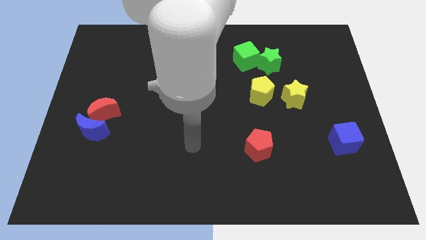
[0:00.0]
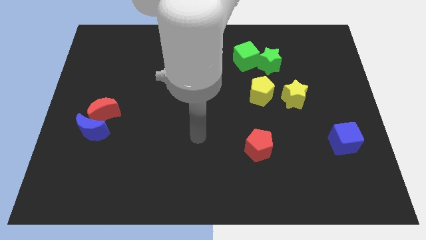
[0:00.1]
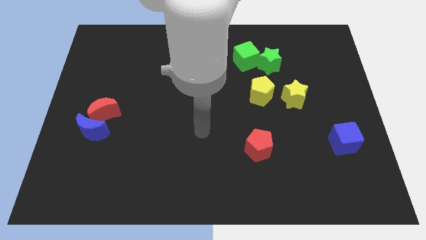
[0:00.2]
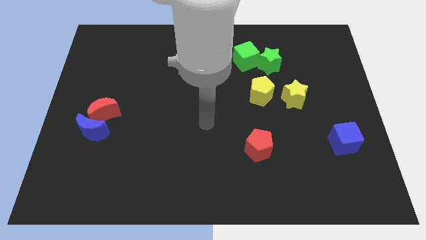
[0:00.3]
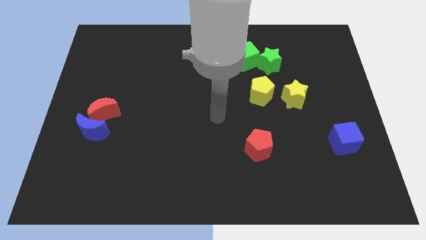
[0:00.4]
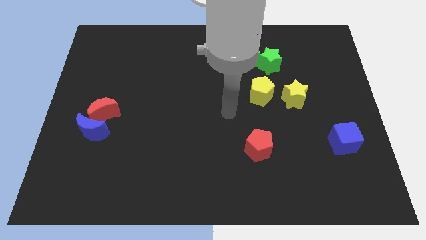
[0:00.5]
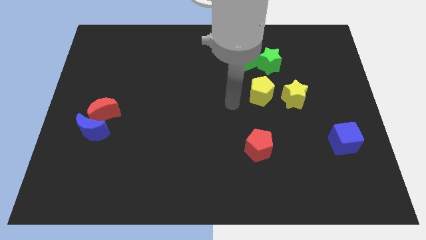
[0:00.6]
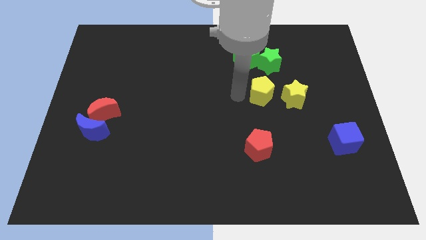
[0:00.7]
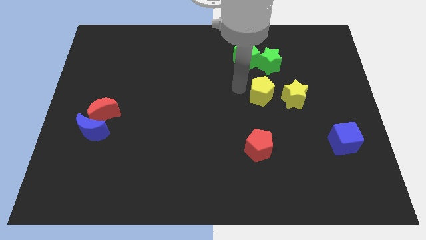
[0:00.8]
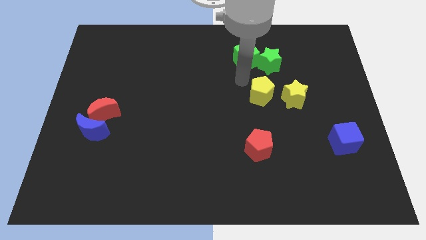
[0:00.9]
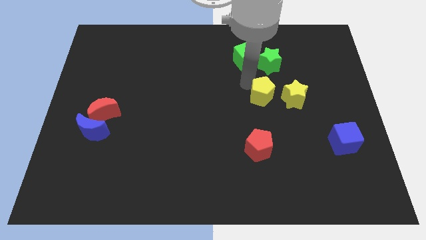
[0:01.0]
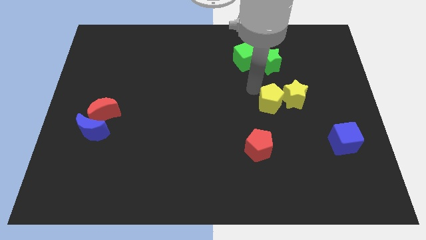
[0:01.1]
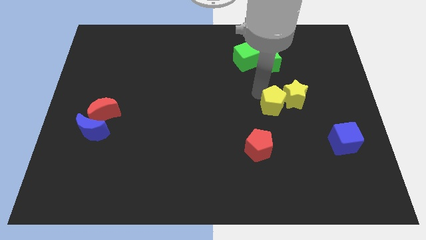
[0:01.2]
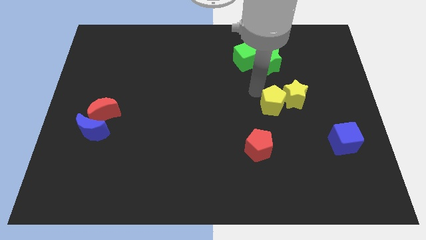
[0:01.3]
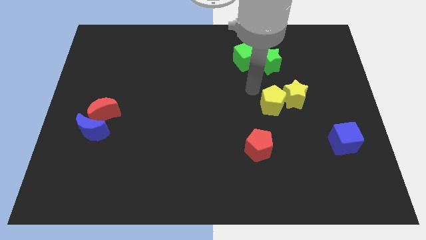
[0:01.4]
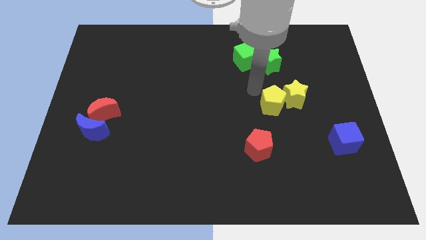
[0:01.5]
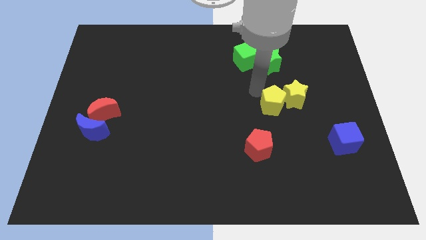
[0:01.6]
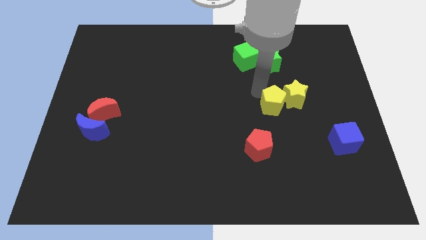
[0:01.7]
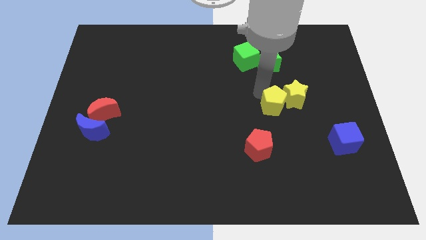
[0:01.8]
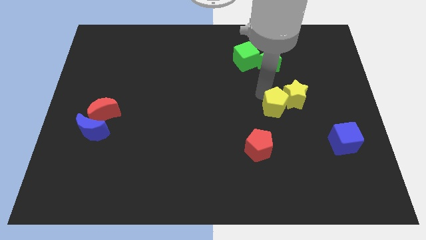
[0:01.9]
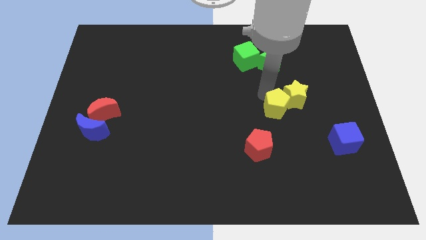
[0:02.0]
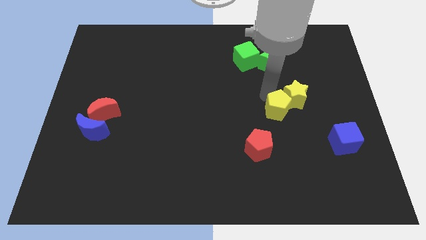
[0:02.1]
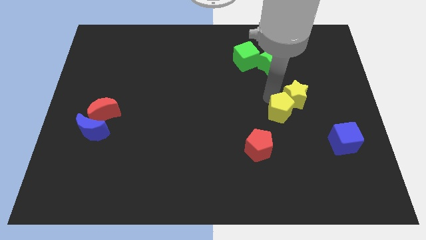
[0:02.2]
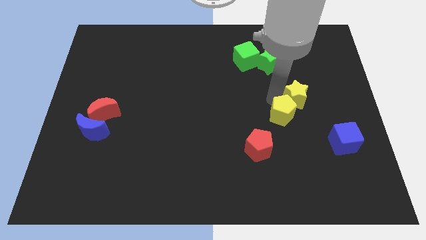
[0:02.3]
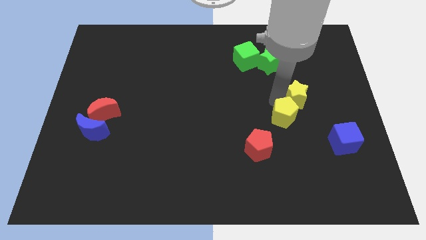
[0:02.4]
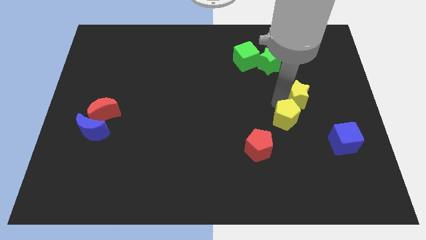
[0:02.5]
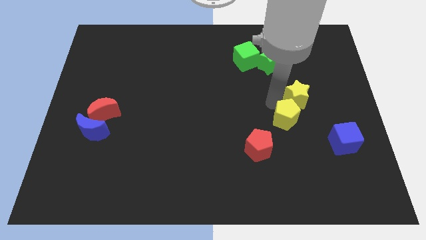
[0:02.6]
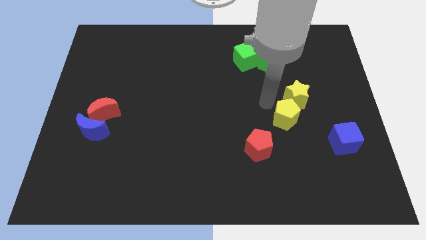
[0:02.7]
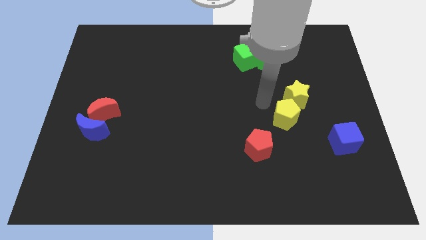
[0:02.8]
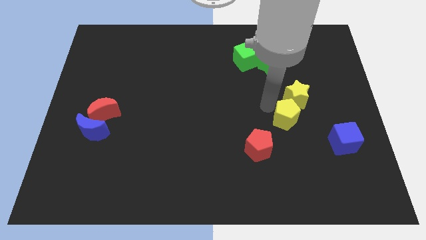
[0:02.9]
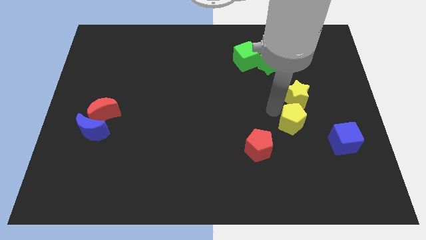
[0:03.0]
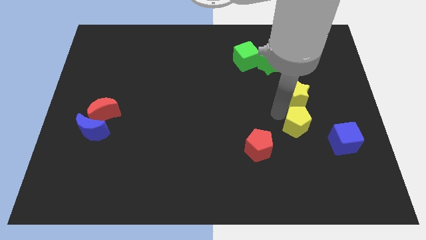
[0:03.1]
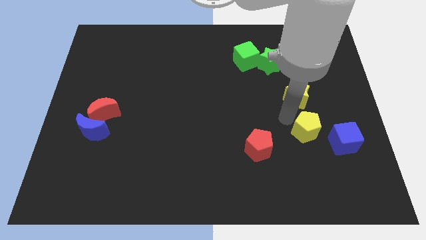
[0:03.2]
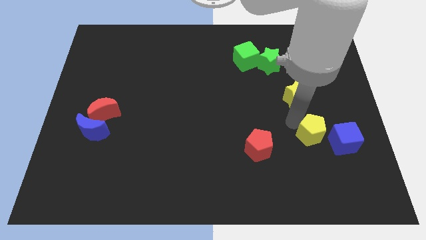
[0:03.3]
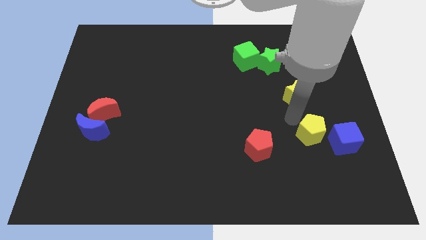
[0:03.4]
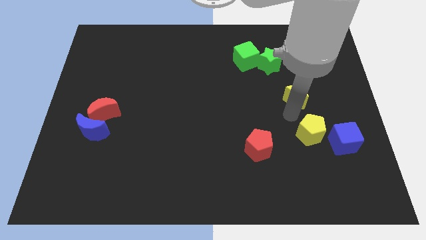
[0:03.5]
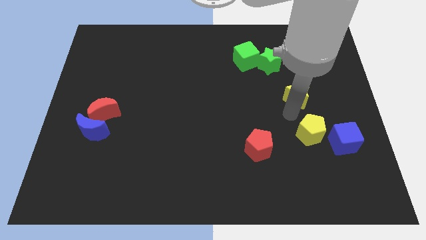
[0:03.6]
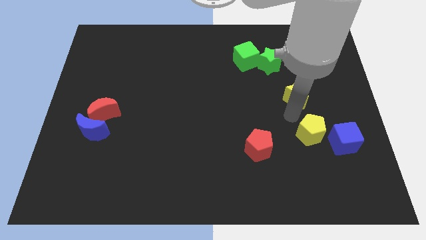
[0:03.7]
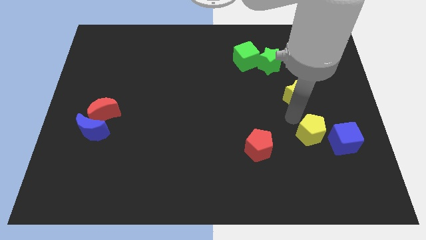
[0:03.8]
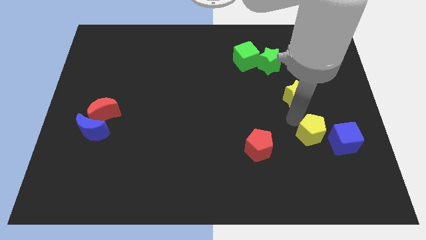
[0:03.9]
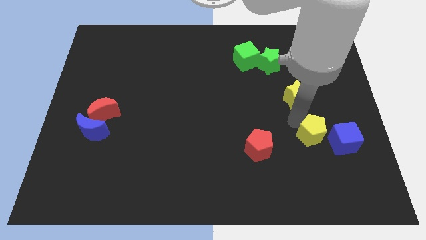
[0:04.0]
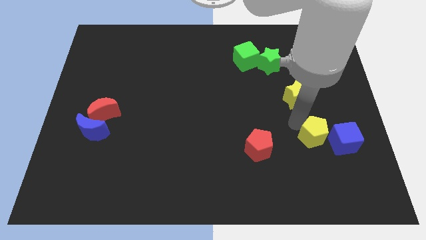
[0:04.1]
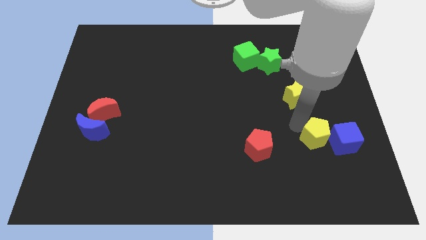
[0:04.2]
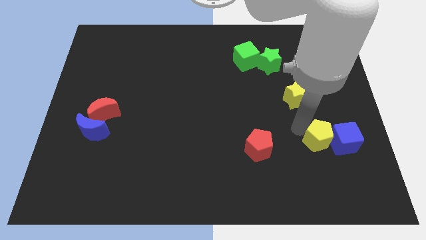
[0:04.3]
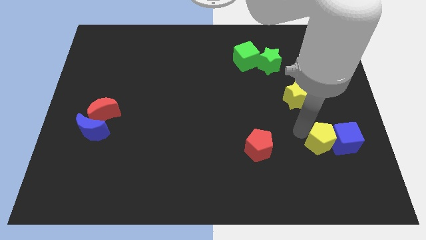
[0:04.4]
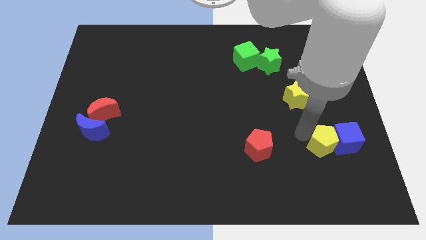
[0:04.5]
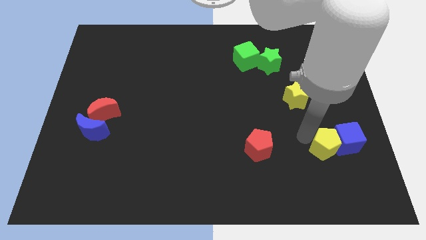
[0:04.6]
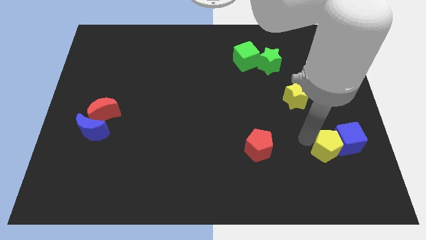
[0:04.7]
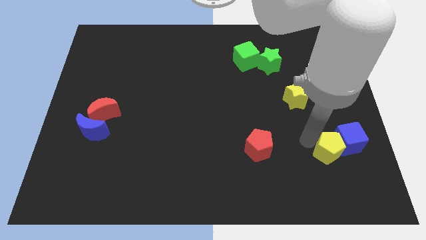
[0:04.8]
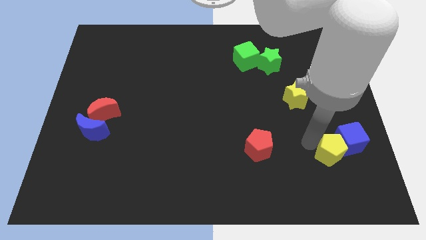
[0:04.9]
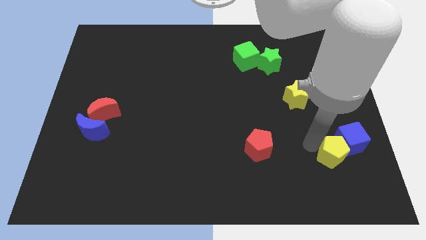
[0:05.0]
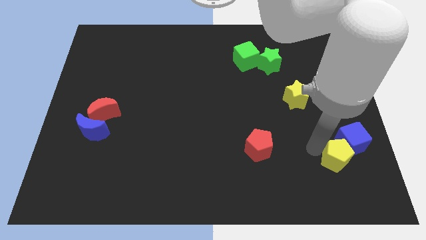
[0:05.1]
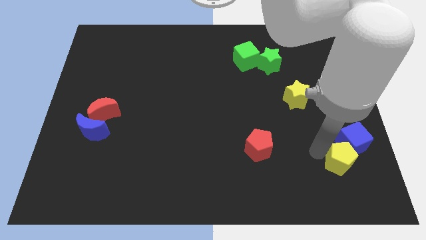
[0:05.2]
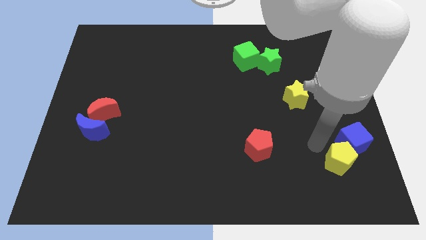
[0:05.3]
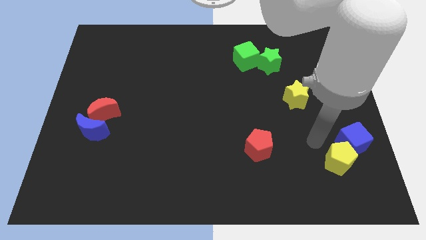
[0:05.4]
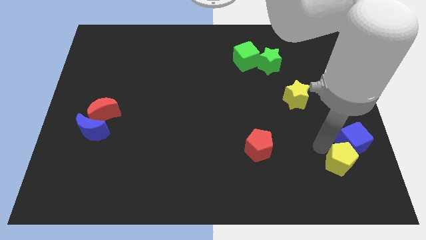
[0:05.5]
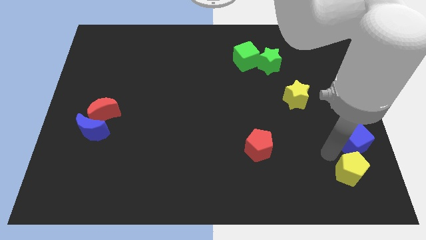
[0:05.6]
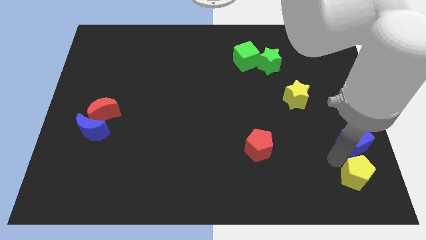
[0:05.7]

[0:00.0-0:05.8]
put the yellow pentagon to the bottom right corner

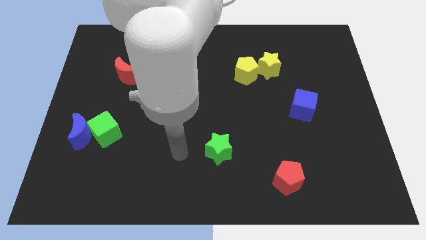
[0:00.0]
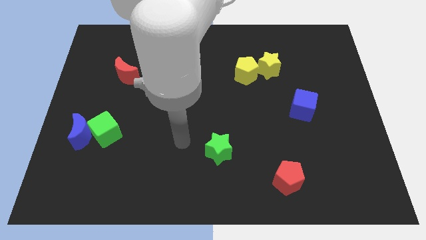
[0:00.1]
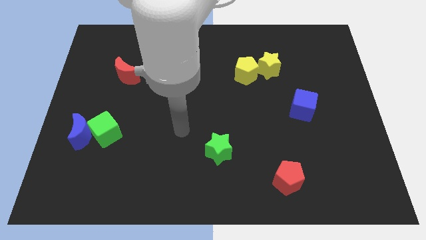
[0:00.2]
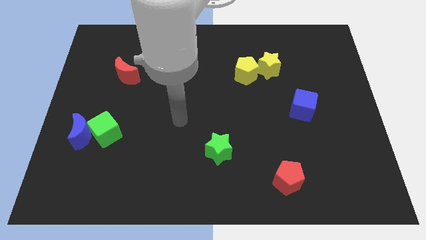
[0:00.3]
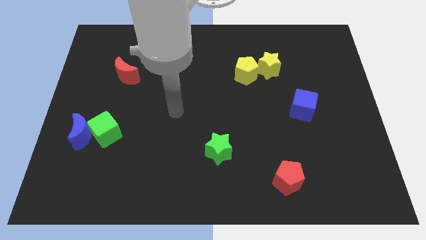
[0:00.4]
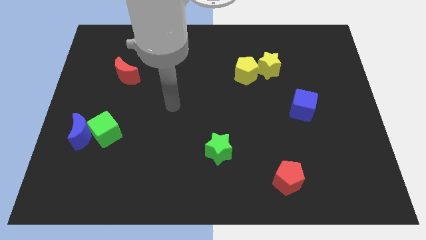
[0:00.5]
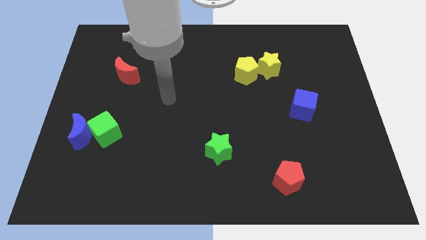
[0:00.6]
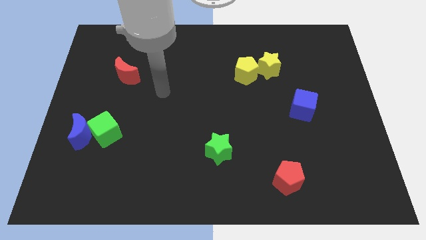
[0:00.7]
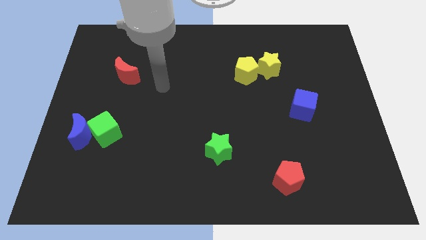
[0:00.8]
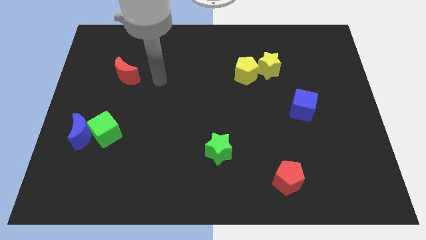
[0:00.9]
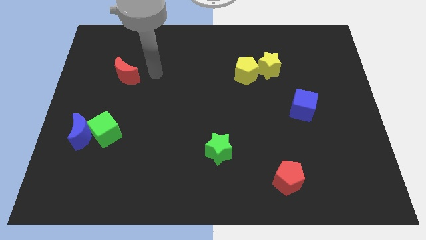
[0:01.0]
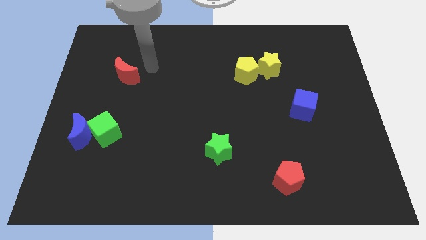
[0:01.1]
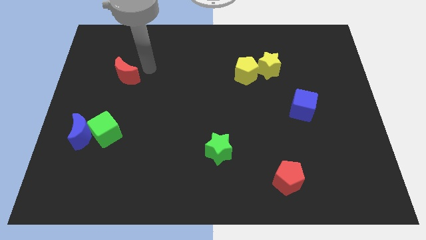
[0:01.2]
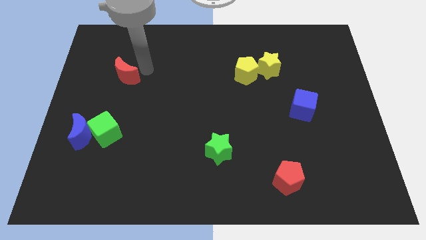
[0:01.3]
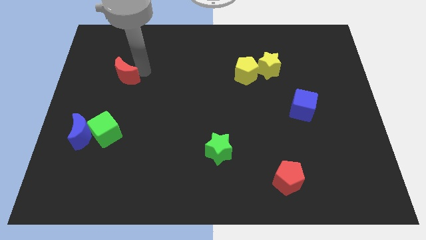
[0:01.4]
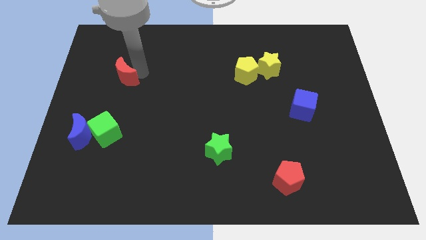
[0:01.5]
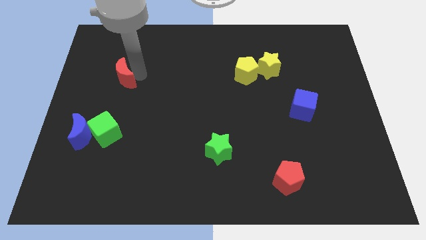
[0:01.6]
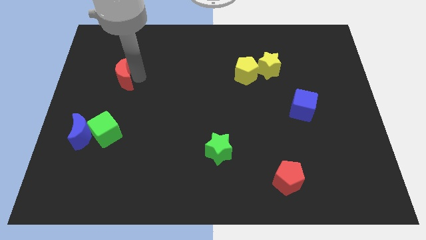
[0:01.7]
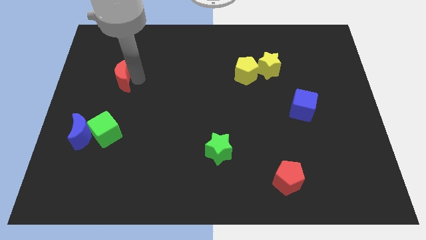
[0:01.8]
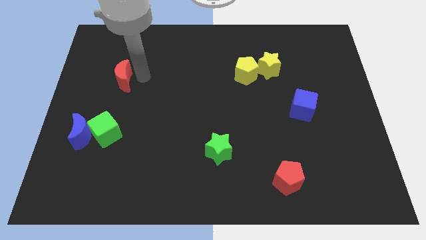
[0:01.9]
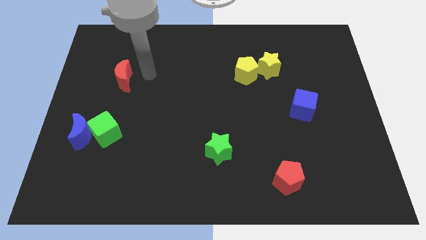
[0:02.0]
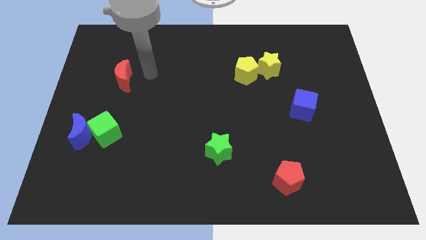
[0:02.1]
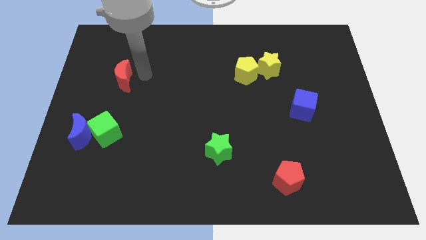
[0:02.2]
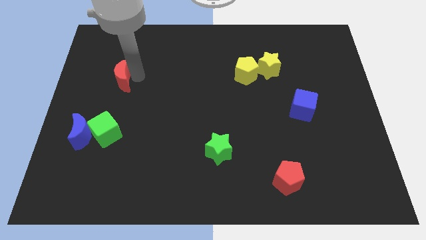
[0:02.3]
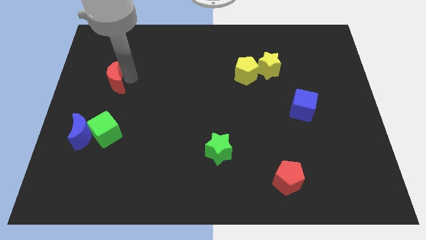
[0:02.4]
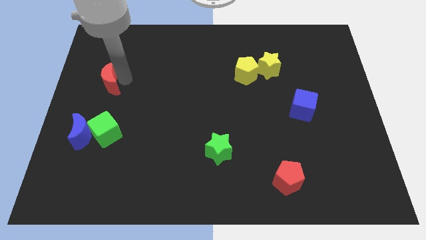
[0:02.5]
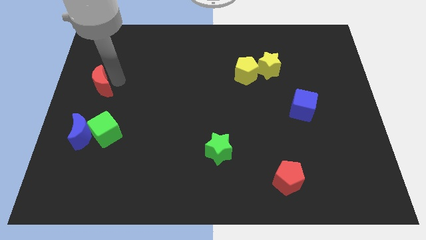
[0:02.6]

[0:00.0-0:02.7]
slide the red moon to the left side
